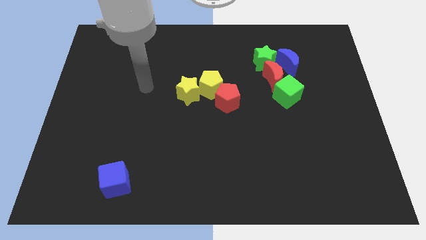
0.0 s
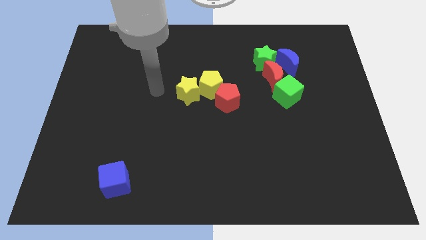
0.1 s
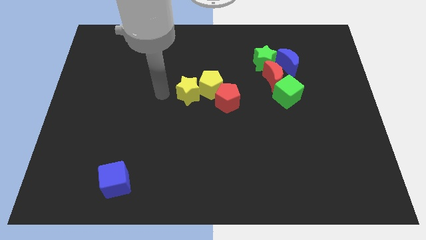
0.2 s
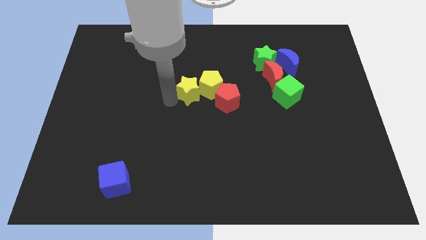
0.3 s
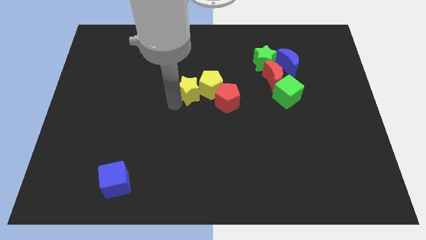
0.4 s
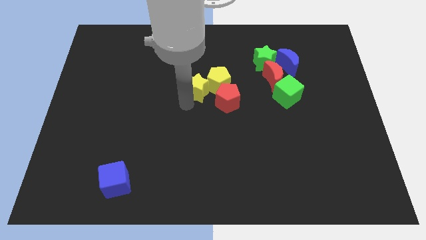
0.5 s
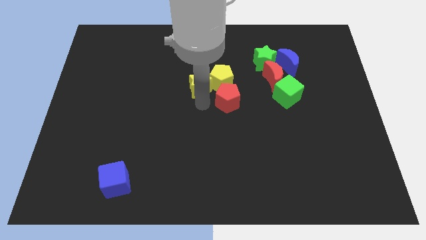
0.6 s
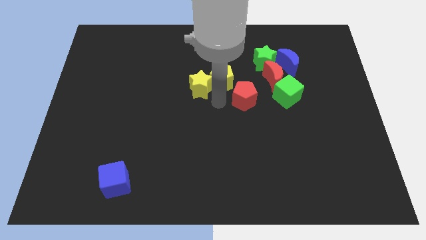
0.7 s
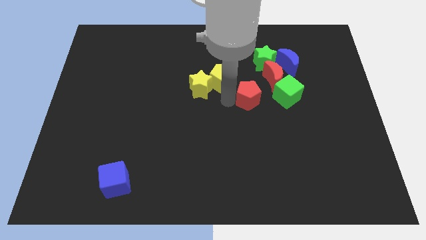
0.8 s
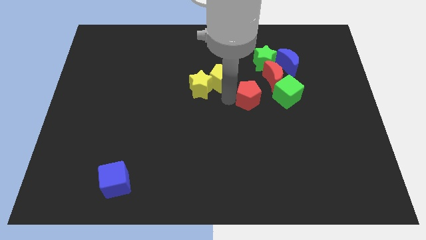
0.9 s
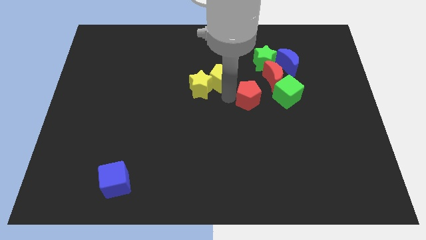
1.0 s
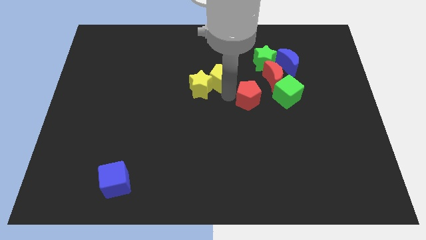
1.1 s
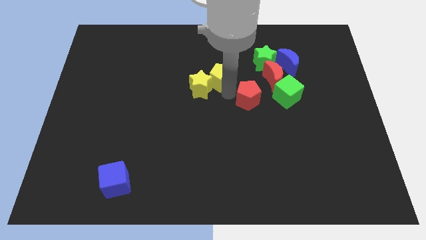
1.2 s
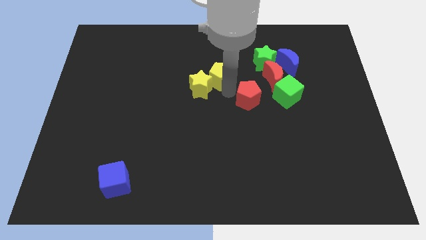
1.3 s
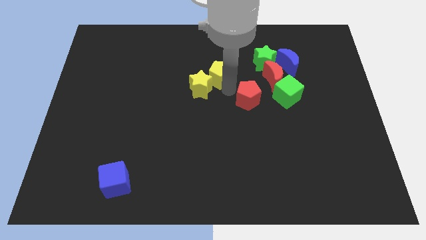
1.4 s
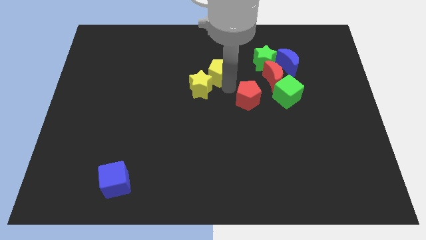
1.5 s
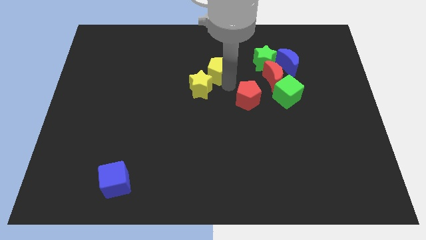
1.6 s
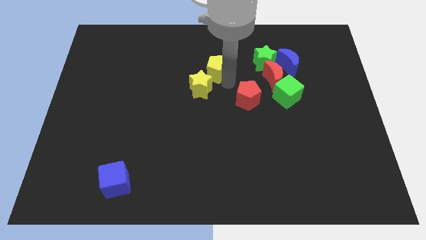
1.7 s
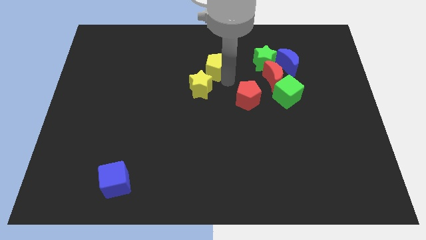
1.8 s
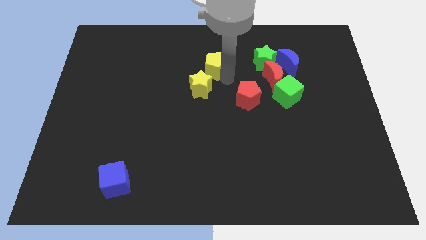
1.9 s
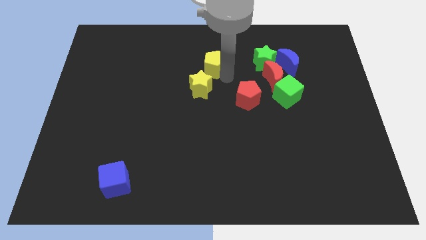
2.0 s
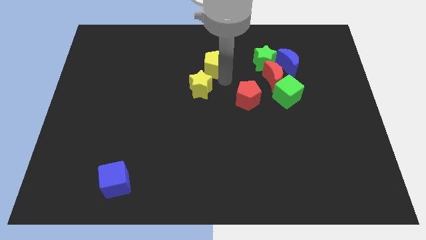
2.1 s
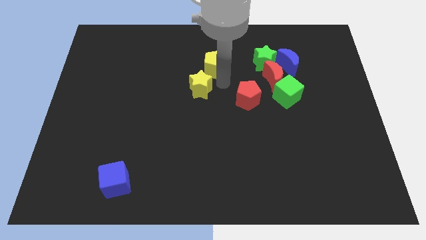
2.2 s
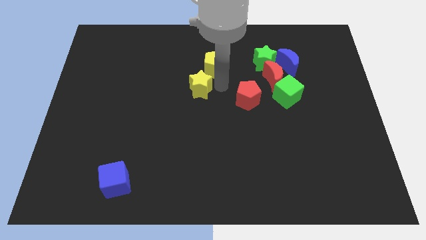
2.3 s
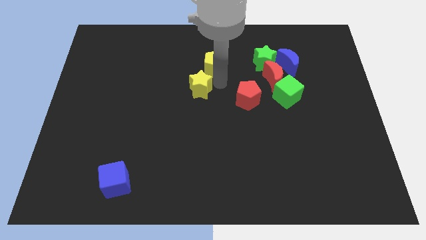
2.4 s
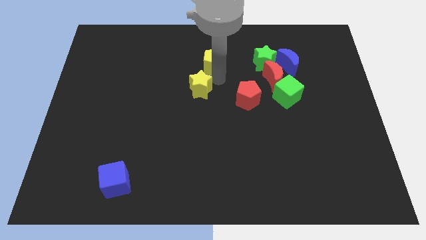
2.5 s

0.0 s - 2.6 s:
move the yellow pentagon away from the red pentagon and yellow star

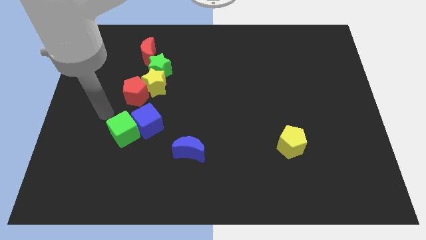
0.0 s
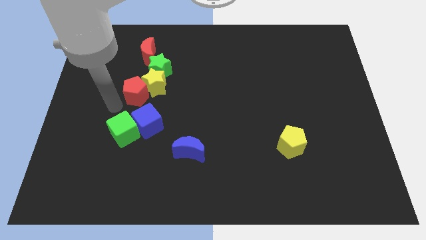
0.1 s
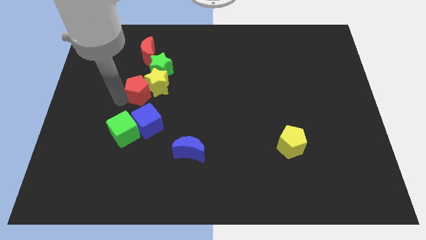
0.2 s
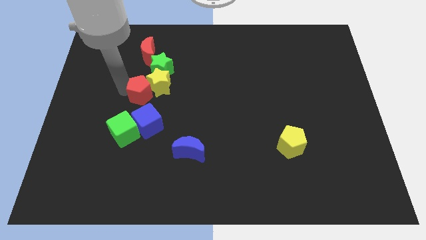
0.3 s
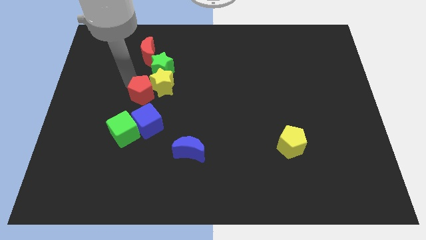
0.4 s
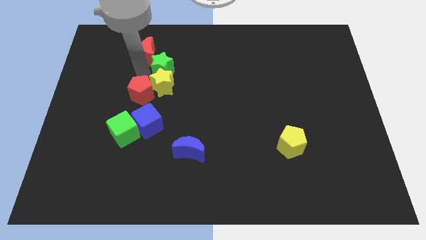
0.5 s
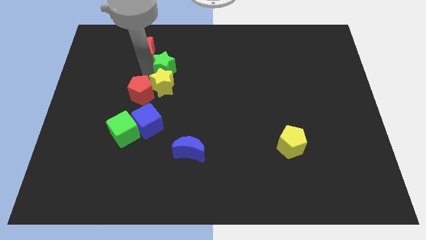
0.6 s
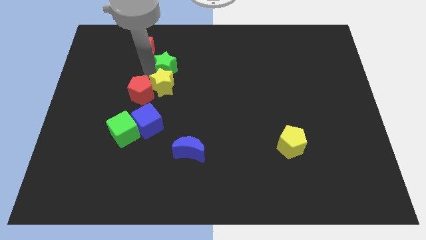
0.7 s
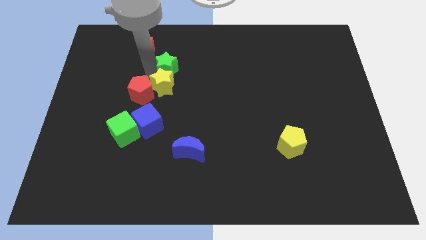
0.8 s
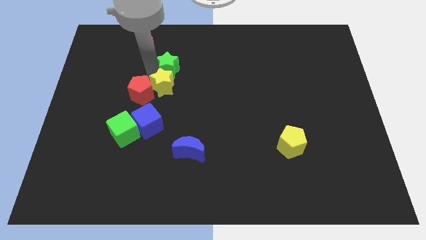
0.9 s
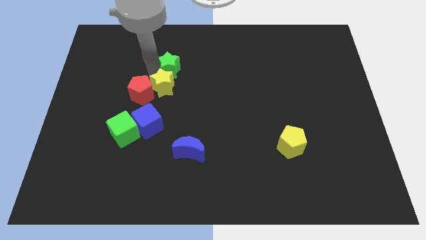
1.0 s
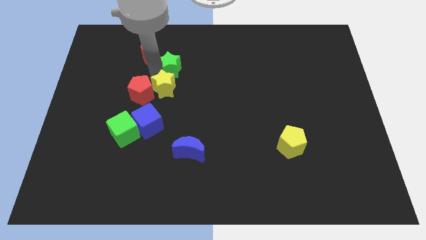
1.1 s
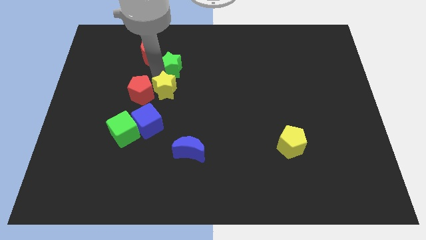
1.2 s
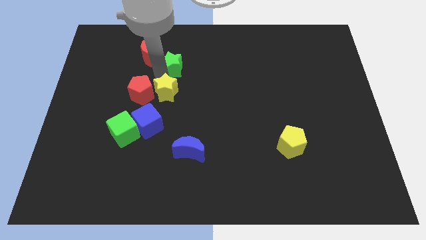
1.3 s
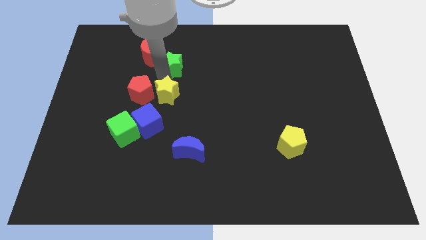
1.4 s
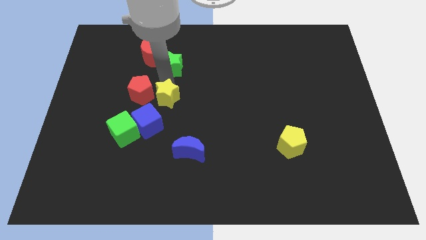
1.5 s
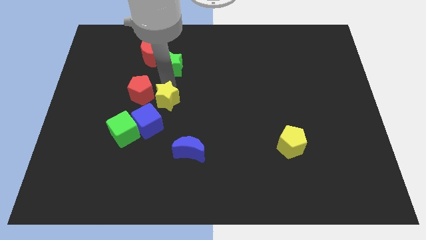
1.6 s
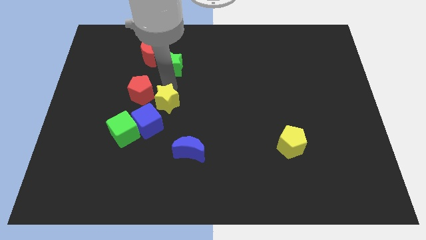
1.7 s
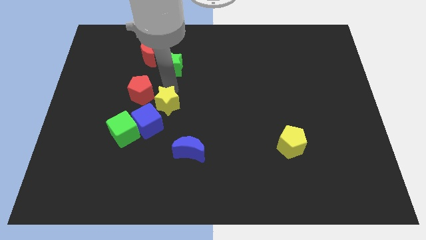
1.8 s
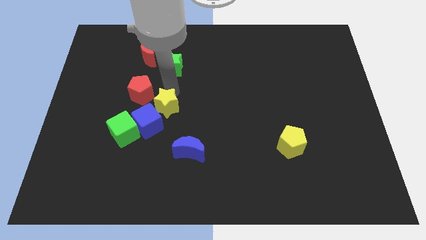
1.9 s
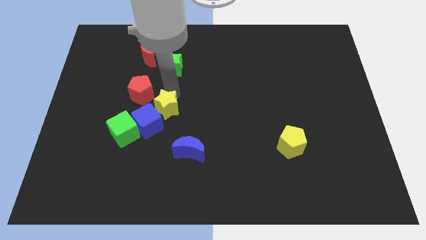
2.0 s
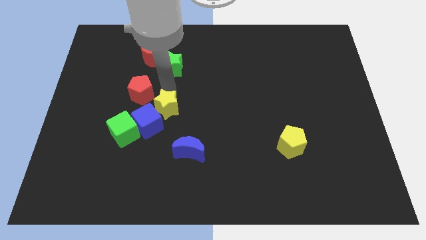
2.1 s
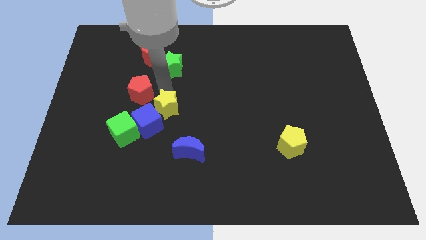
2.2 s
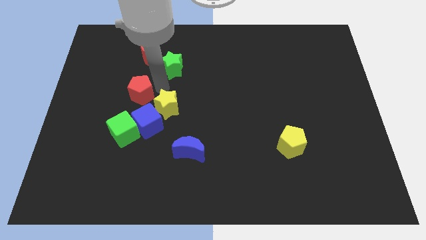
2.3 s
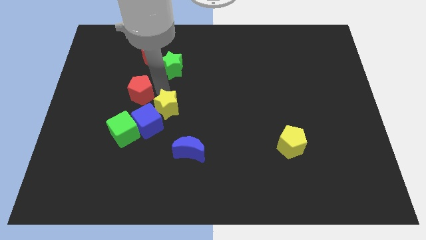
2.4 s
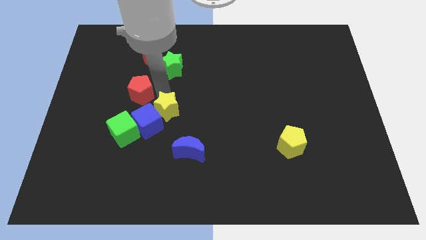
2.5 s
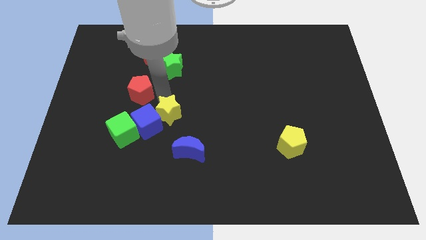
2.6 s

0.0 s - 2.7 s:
separate the yellow star from the red pentagon and green star

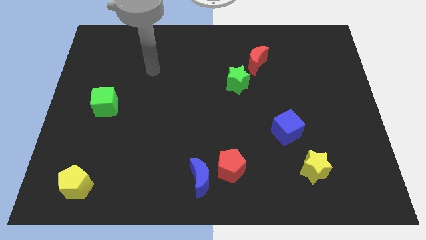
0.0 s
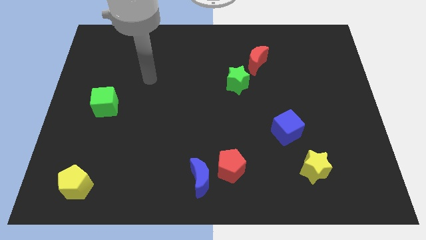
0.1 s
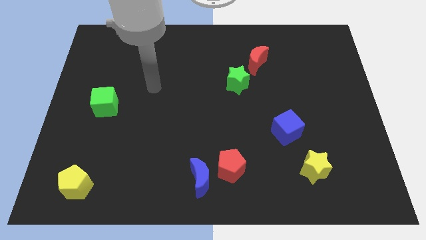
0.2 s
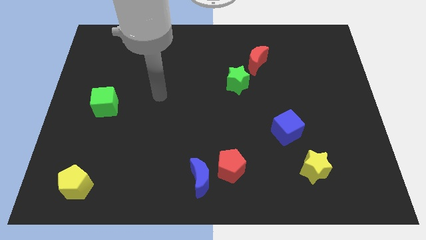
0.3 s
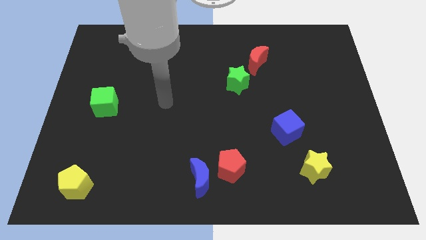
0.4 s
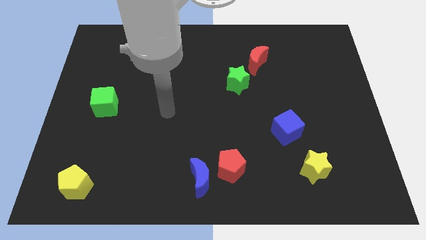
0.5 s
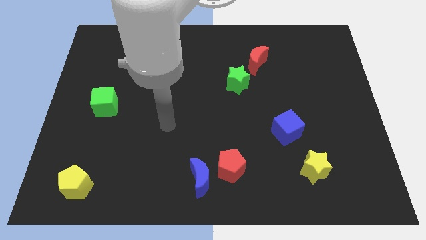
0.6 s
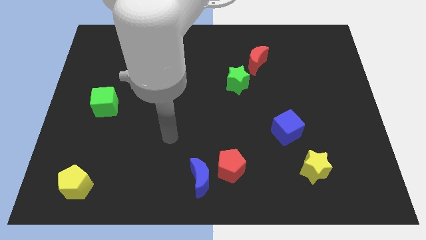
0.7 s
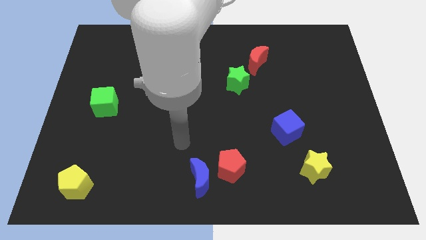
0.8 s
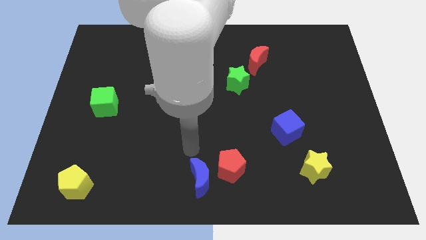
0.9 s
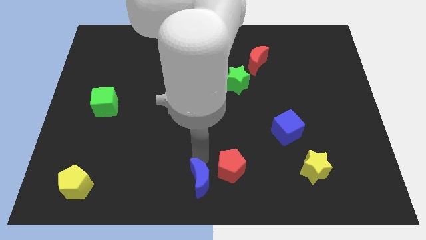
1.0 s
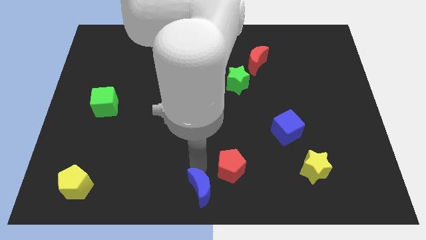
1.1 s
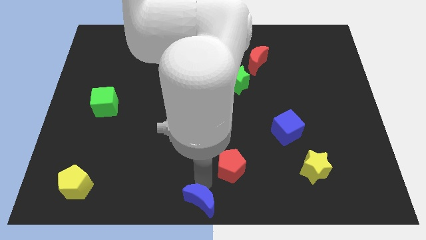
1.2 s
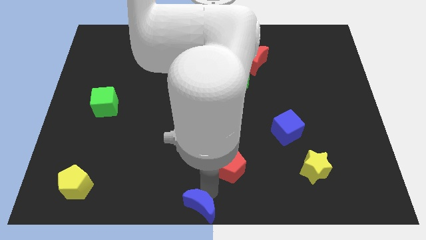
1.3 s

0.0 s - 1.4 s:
separate the red pentagon from the blue moon

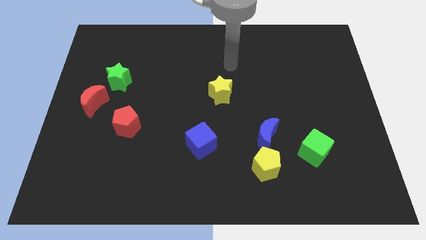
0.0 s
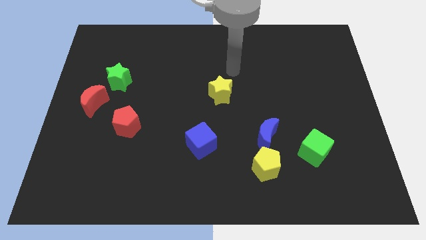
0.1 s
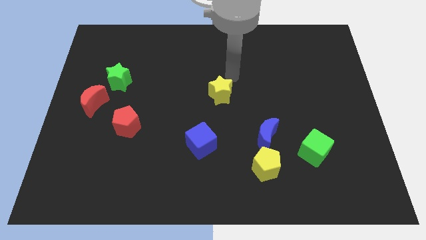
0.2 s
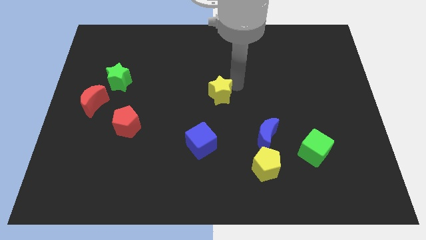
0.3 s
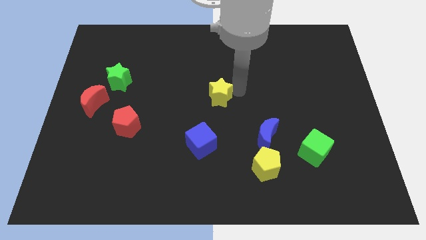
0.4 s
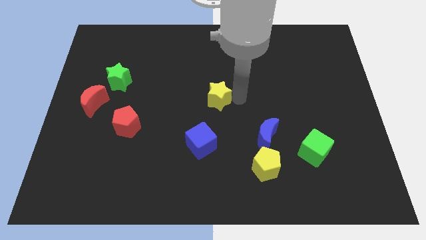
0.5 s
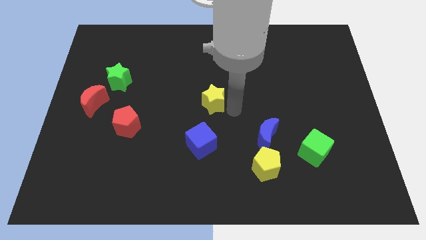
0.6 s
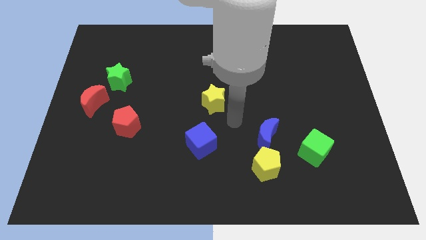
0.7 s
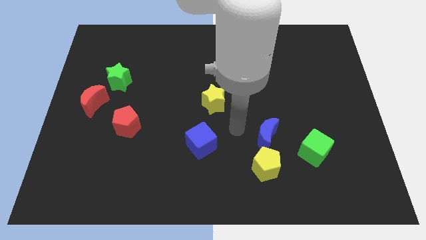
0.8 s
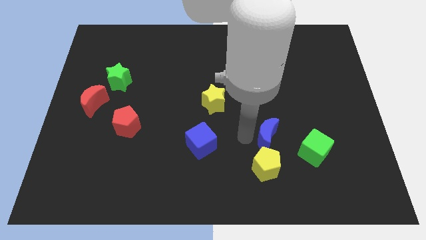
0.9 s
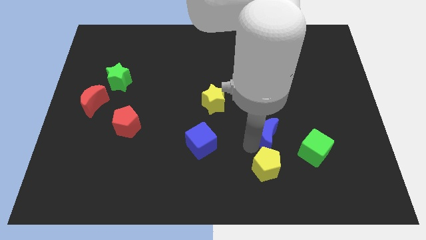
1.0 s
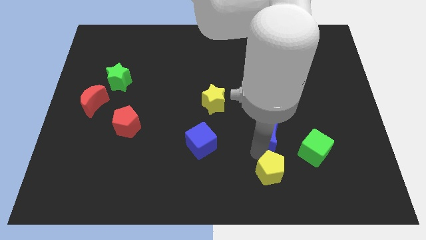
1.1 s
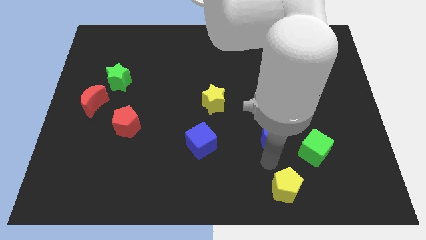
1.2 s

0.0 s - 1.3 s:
pull the blue moon apart from the yellow pentagon

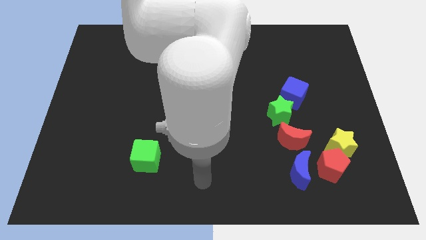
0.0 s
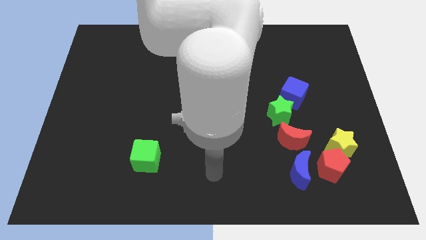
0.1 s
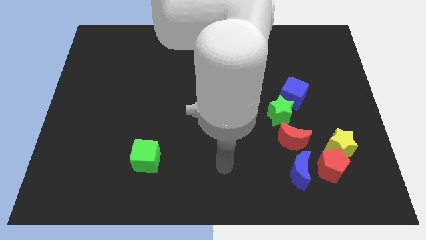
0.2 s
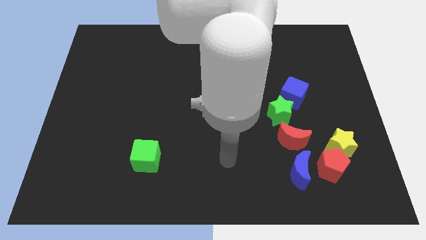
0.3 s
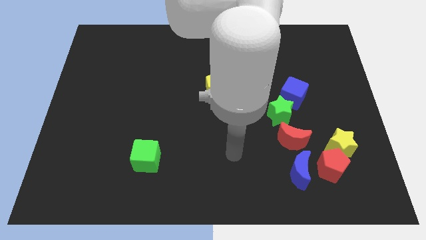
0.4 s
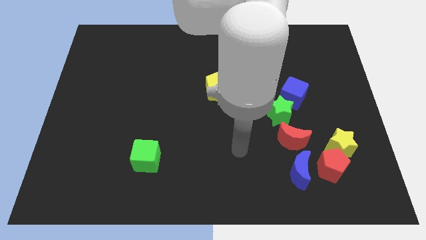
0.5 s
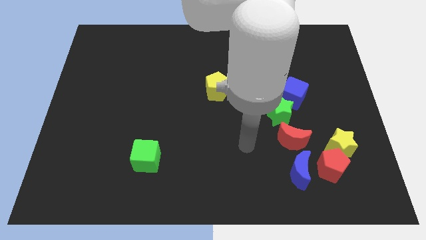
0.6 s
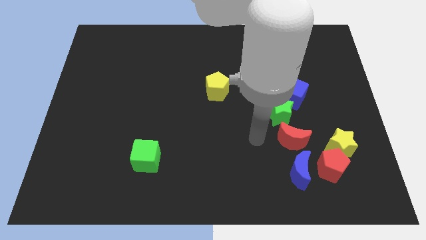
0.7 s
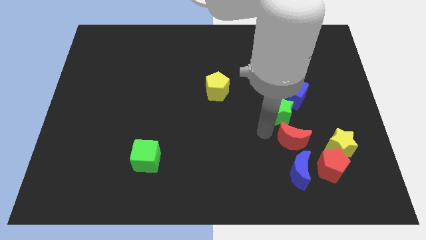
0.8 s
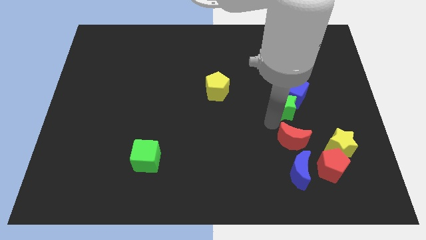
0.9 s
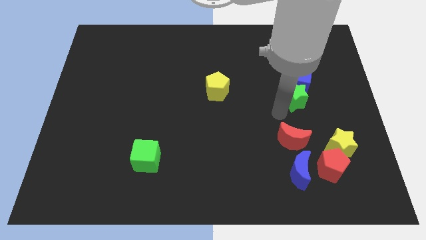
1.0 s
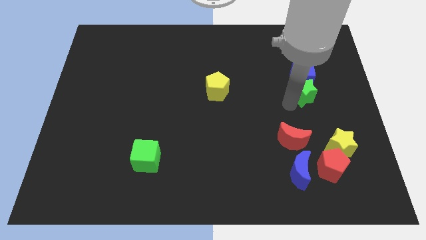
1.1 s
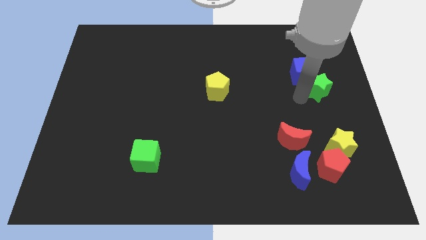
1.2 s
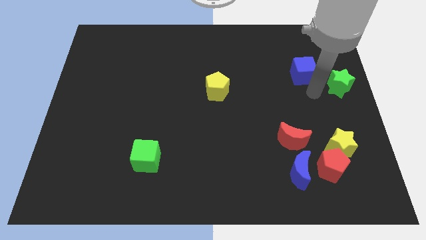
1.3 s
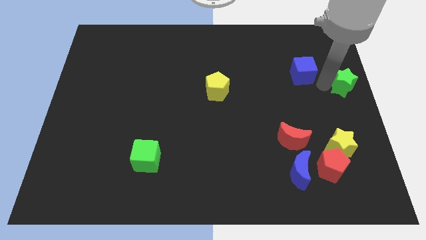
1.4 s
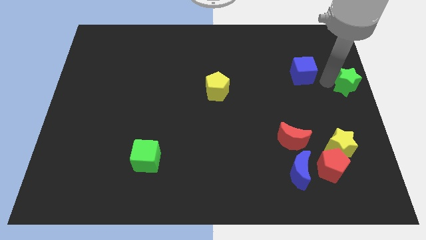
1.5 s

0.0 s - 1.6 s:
move the blue cube away from the green star
